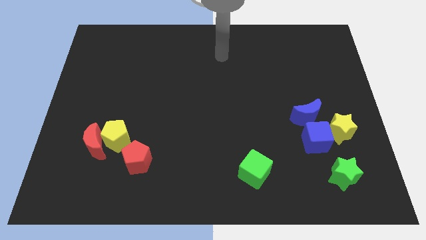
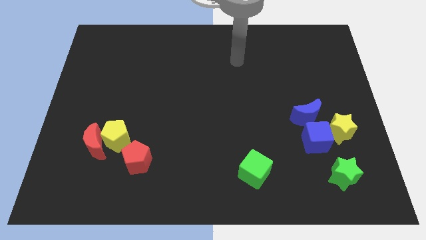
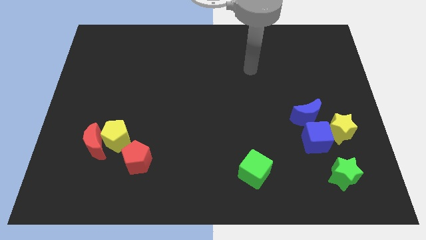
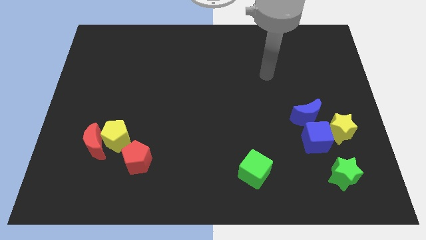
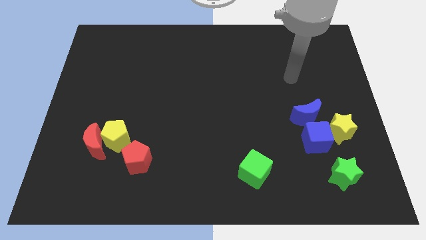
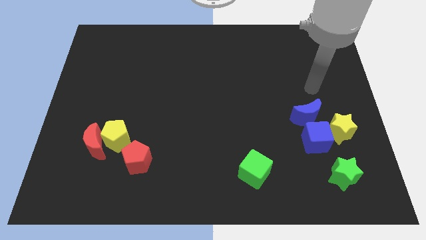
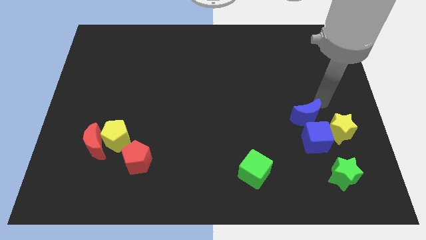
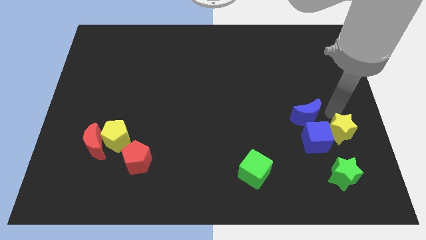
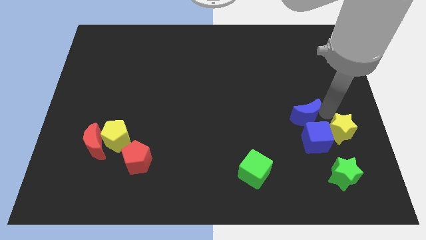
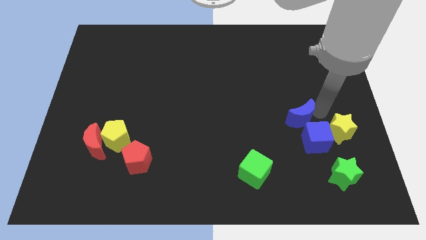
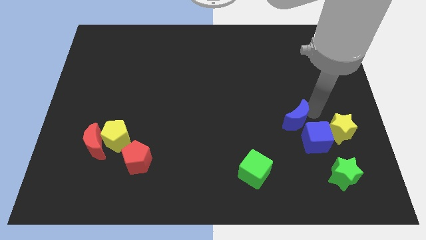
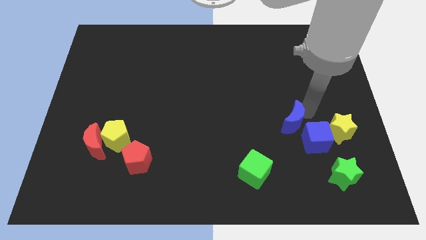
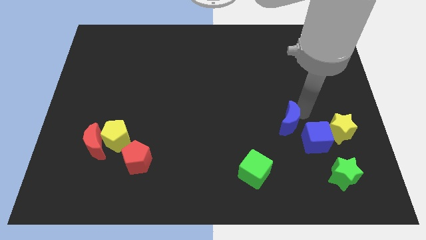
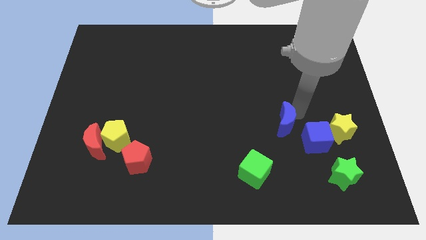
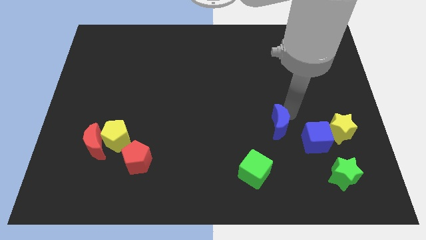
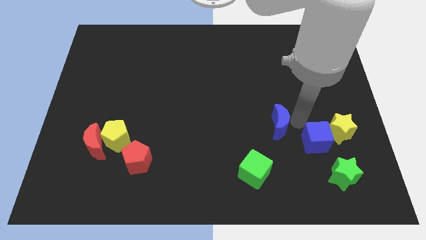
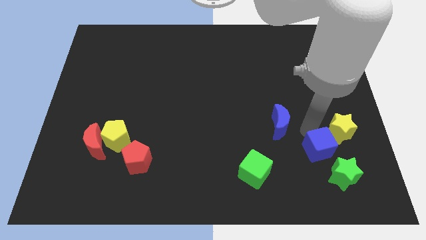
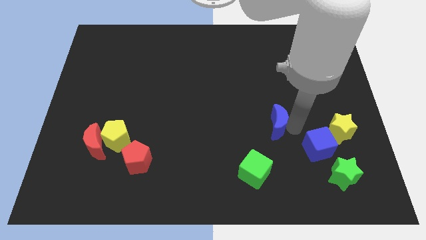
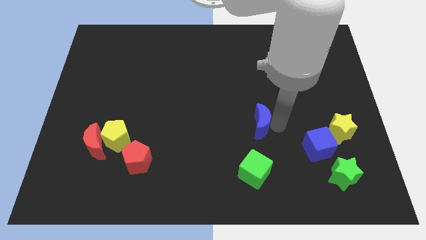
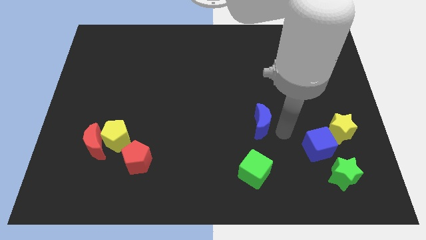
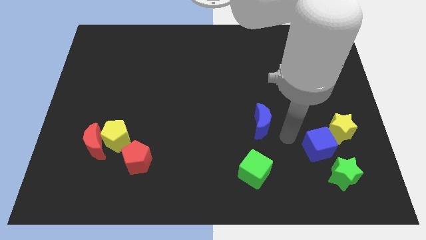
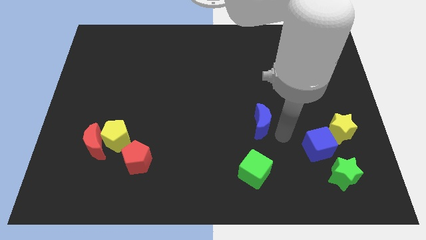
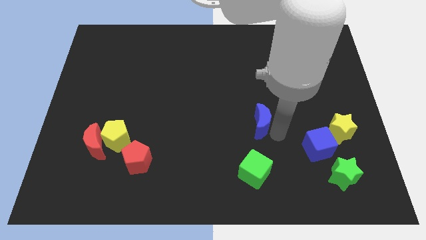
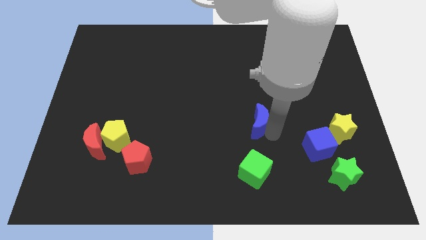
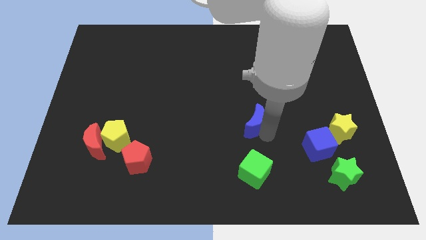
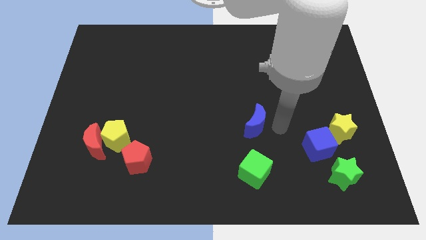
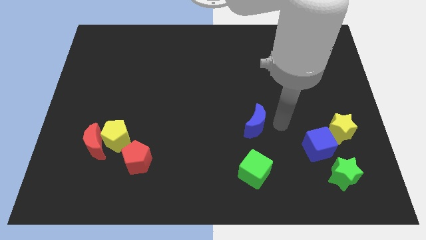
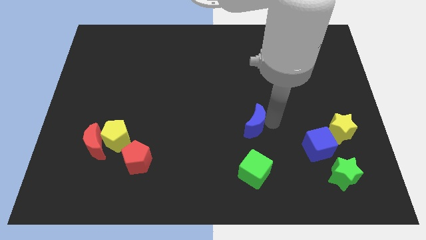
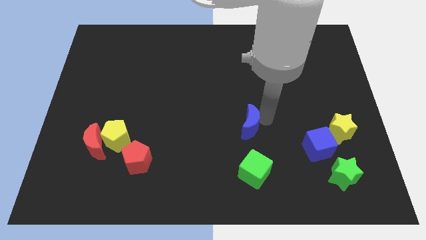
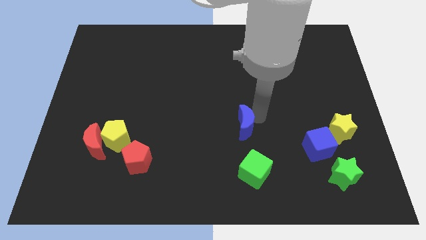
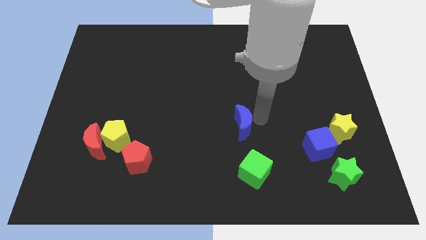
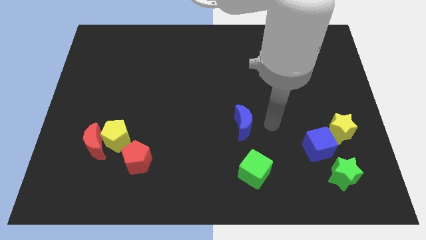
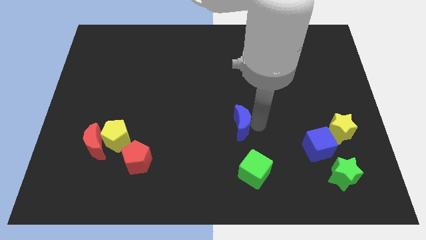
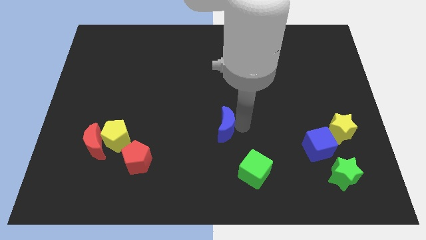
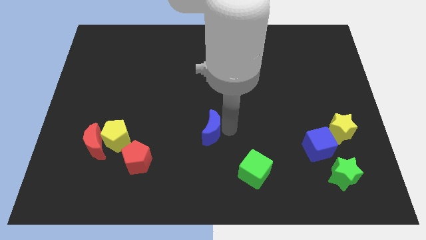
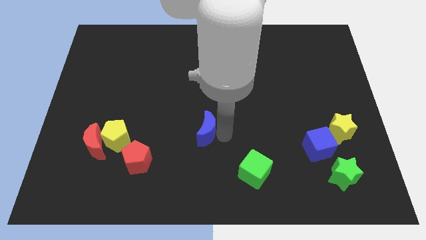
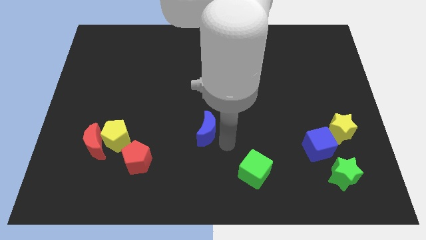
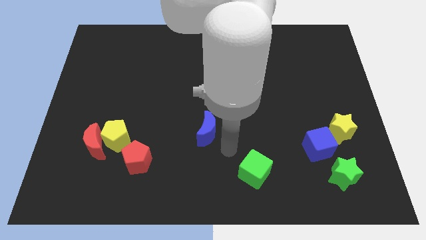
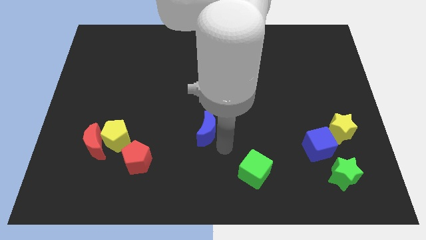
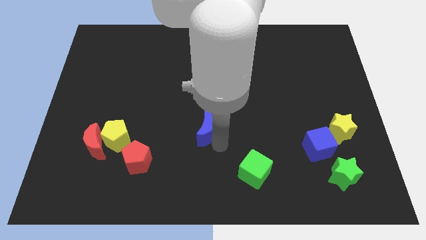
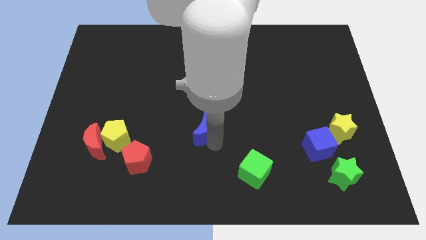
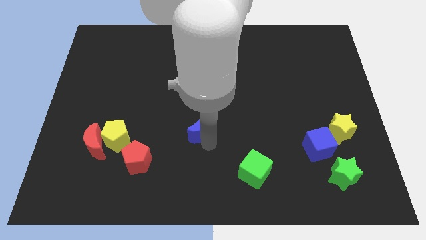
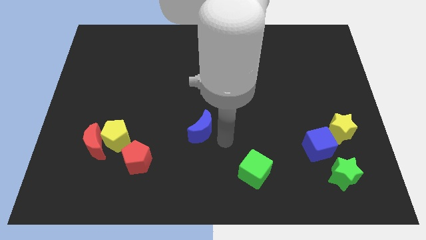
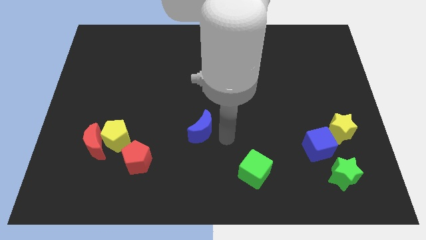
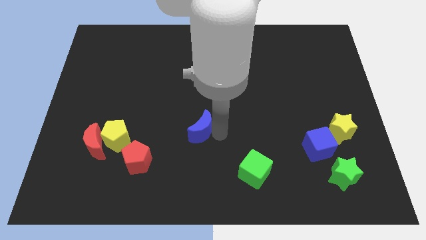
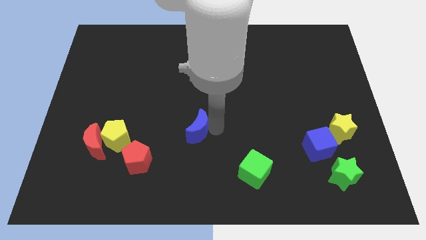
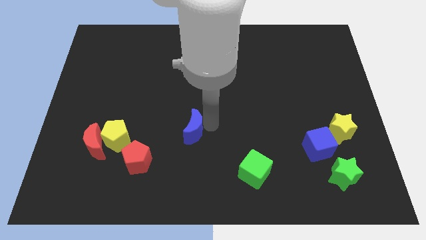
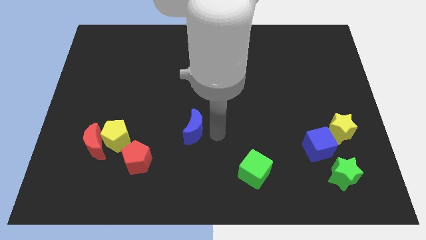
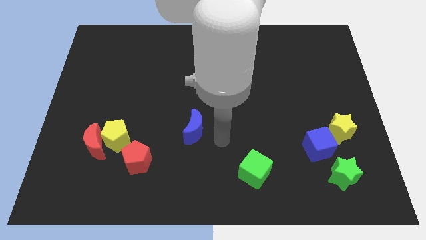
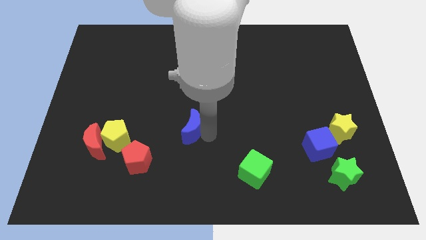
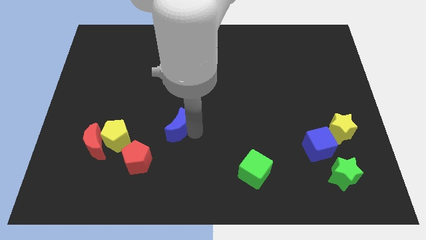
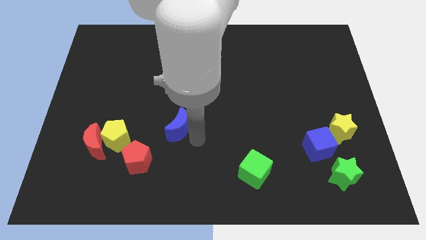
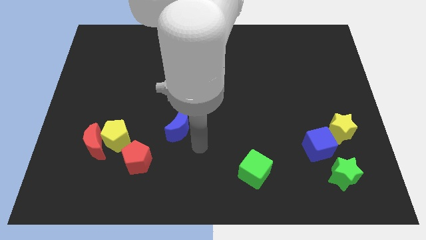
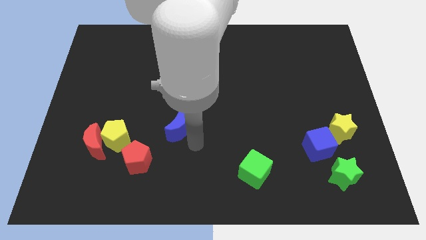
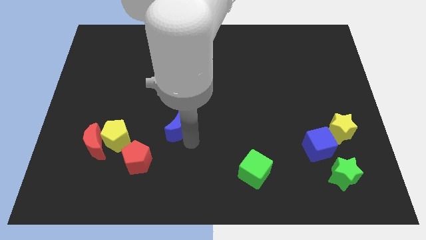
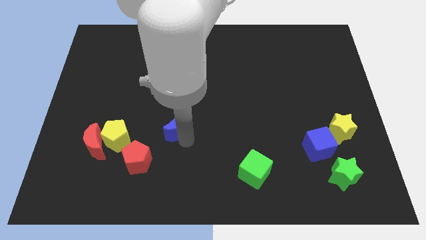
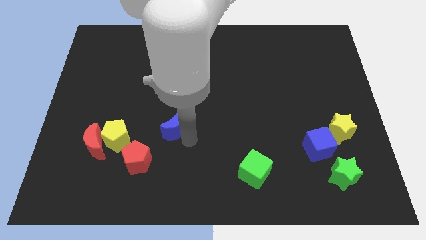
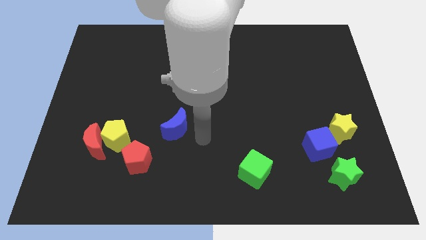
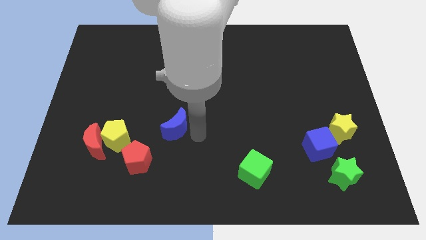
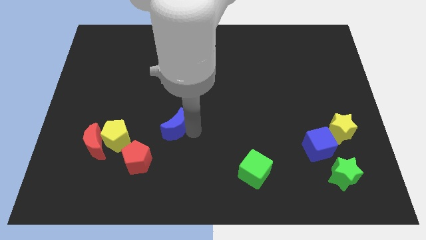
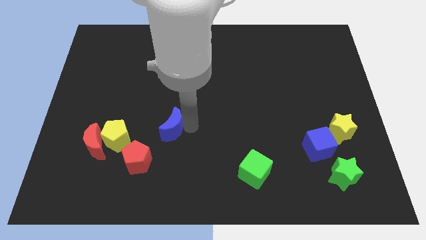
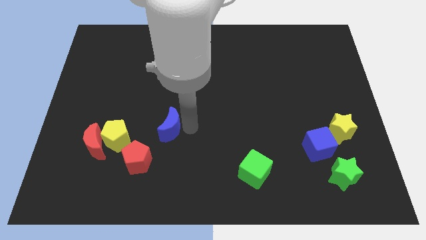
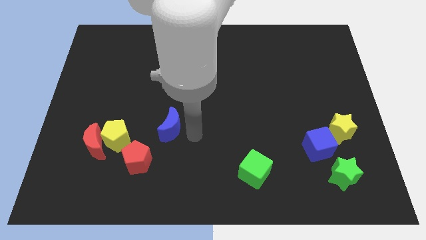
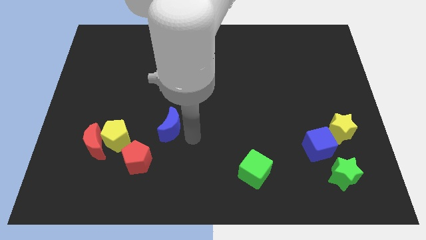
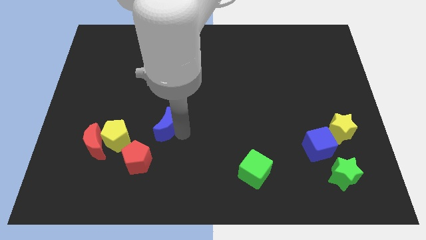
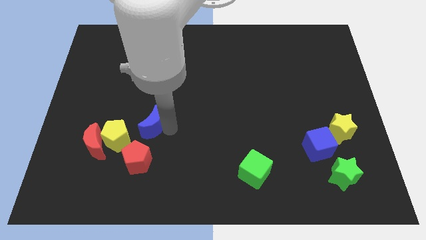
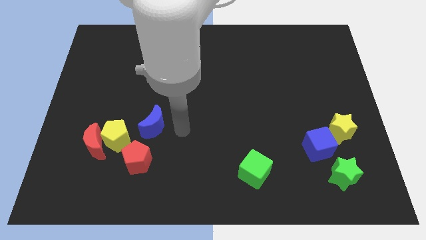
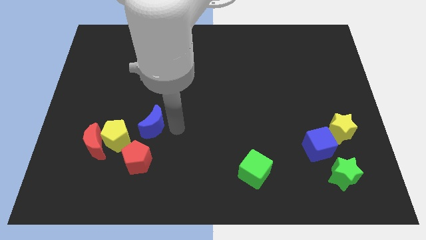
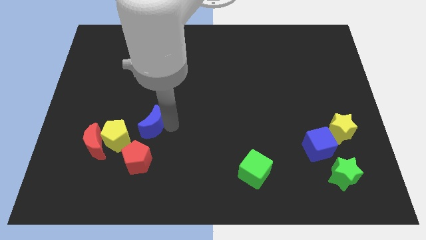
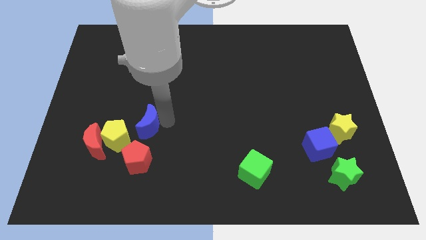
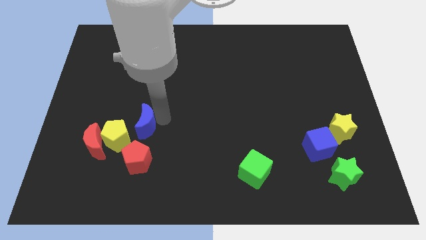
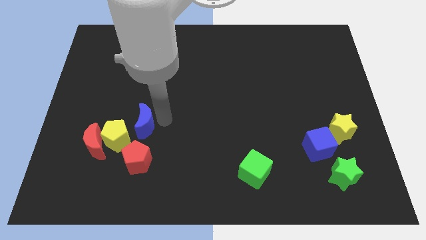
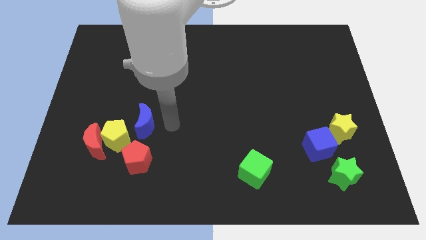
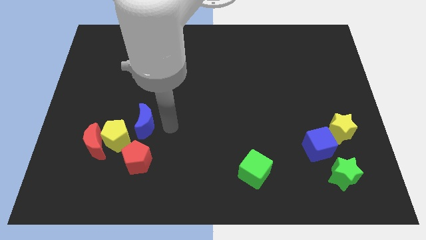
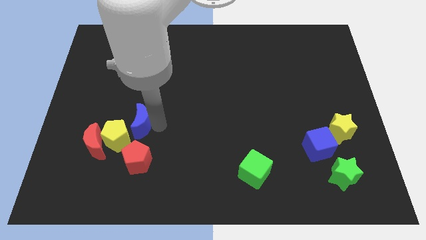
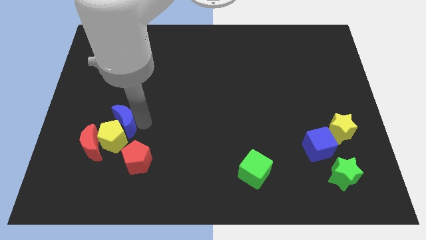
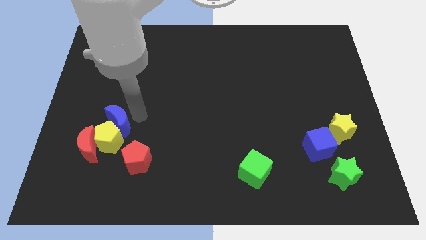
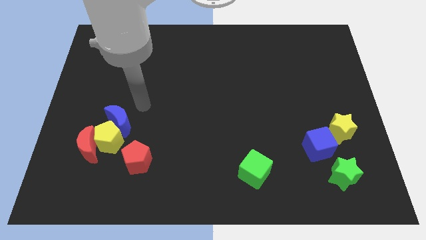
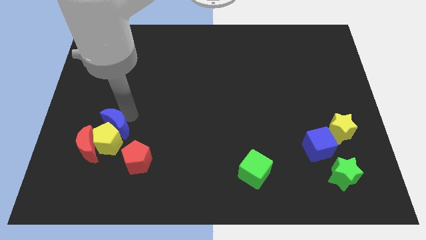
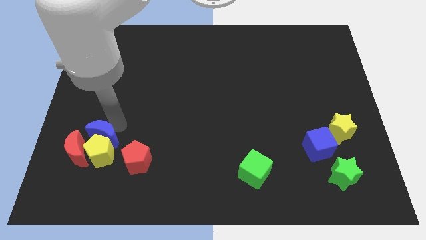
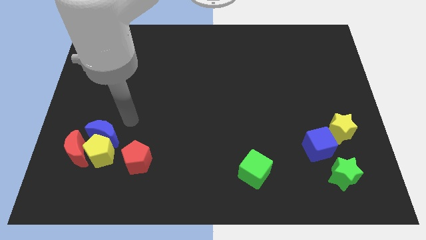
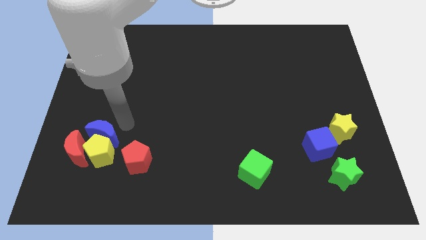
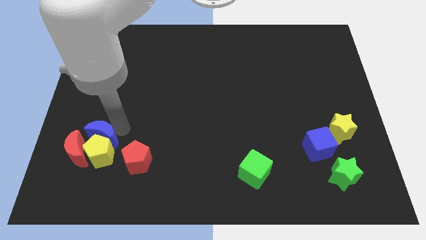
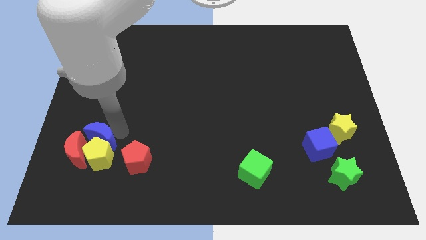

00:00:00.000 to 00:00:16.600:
move the blue moon close to the red moon
